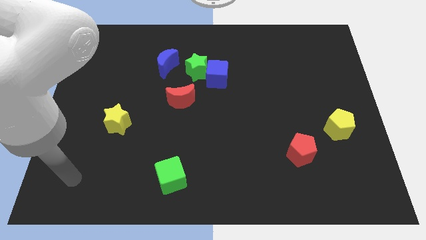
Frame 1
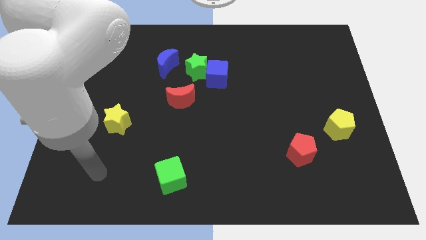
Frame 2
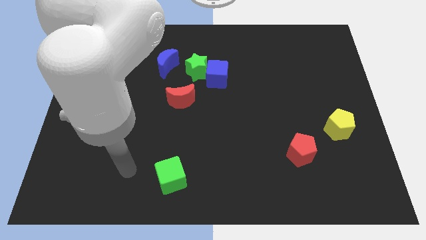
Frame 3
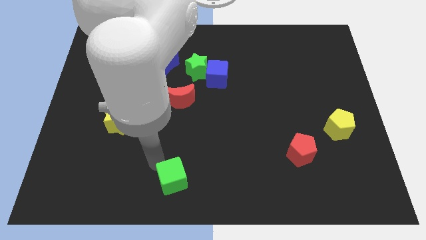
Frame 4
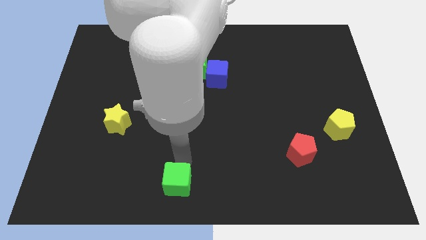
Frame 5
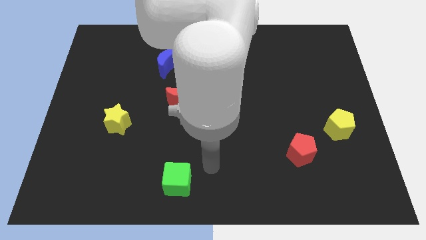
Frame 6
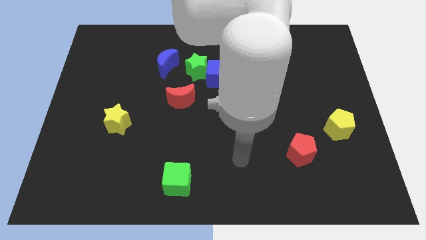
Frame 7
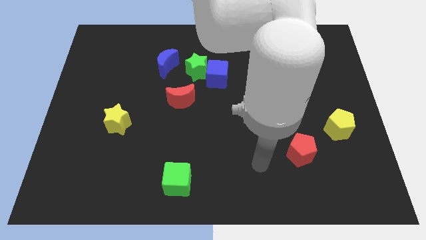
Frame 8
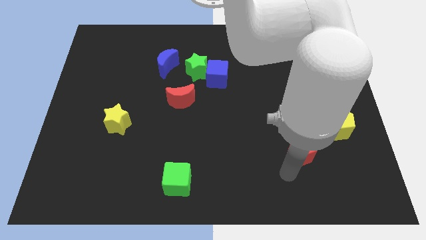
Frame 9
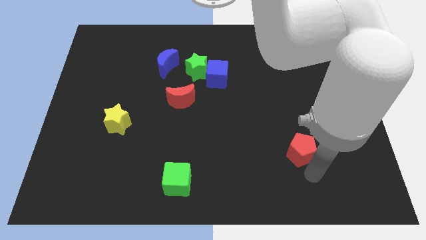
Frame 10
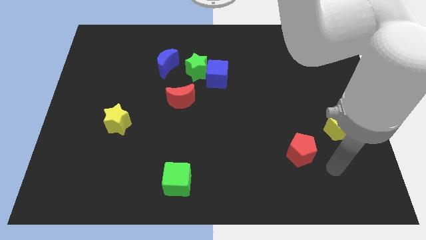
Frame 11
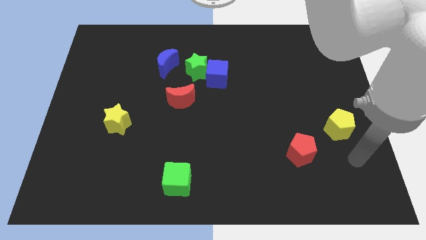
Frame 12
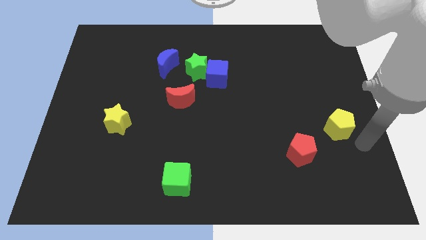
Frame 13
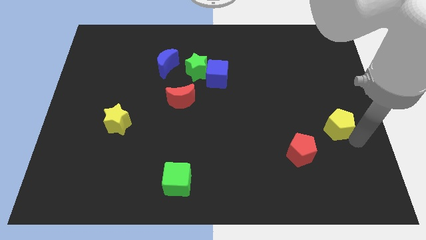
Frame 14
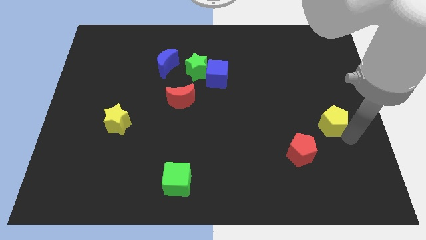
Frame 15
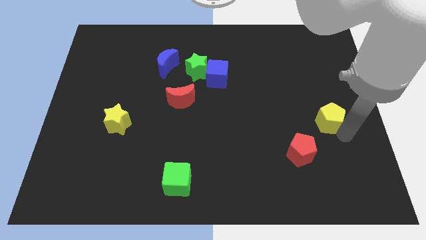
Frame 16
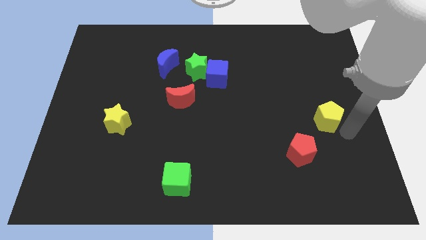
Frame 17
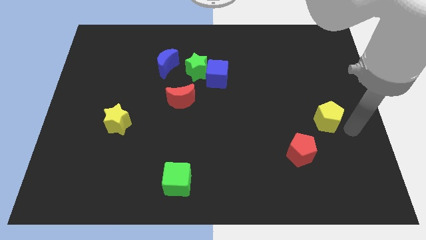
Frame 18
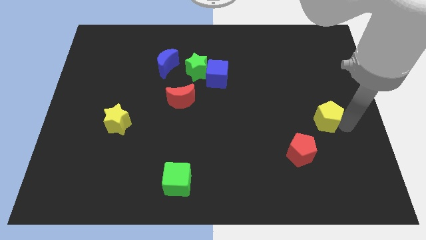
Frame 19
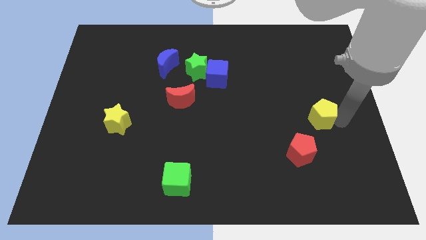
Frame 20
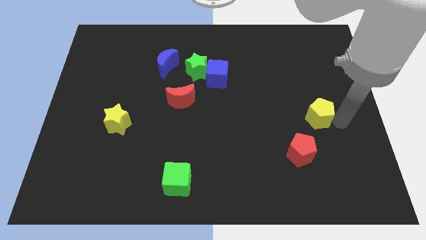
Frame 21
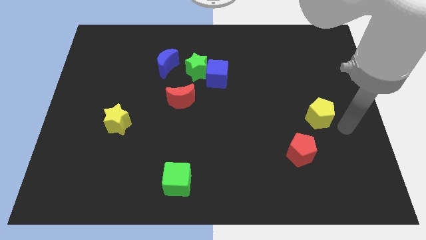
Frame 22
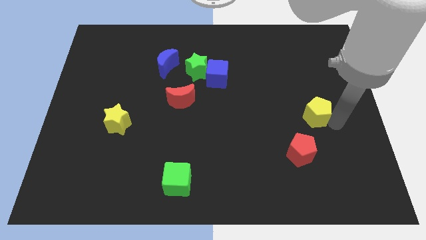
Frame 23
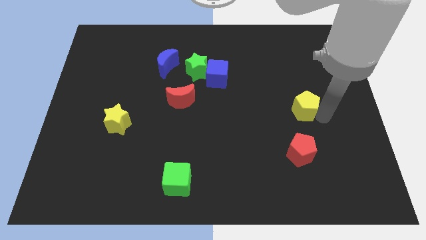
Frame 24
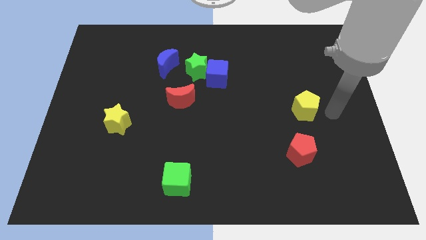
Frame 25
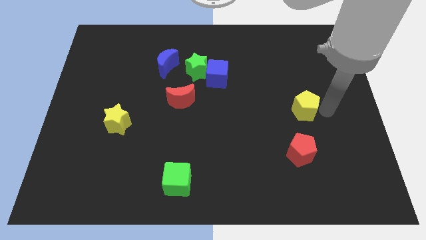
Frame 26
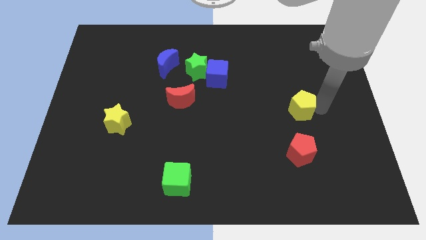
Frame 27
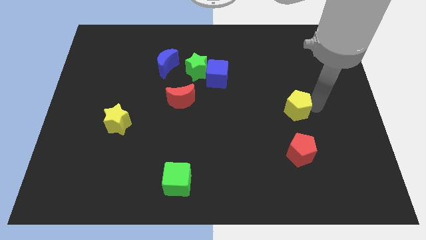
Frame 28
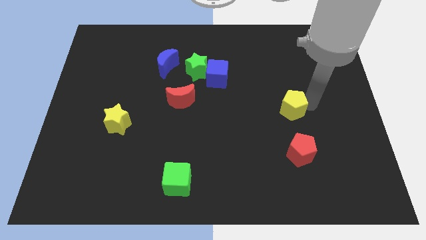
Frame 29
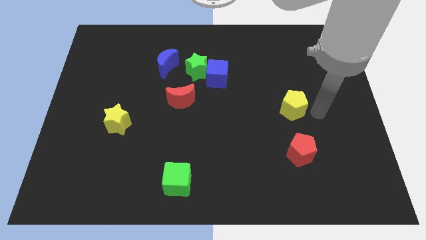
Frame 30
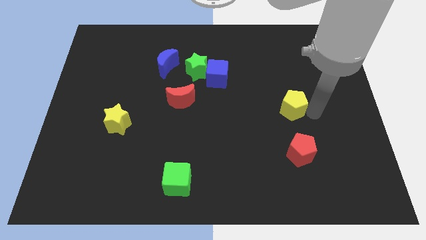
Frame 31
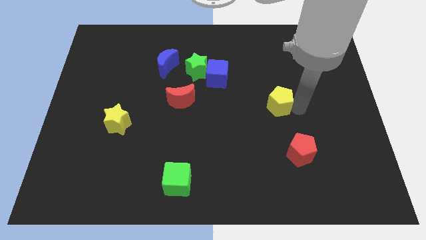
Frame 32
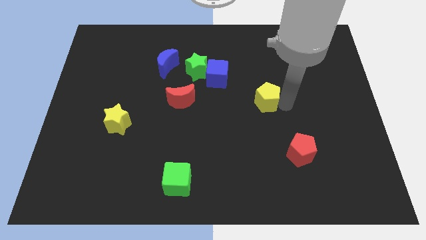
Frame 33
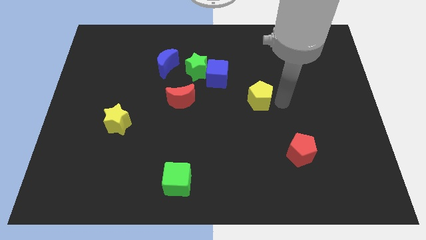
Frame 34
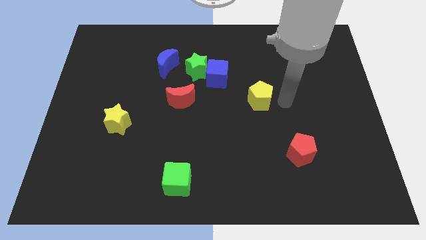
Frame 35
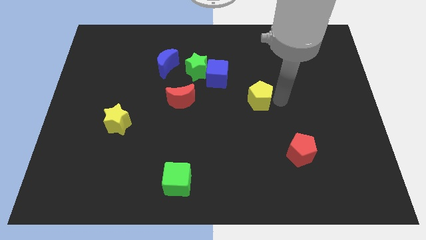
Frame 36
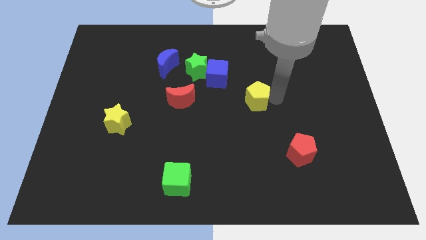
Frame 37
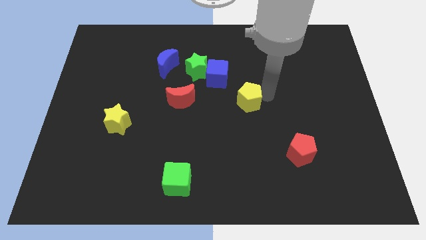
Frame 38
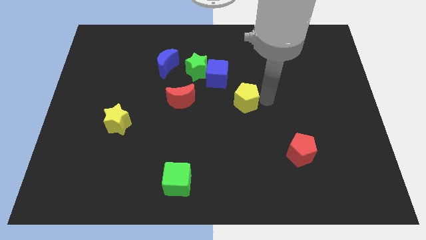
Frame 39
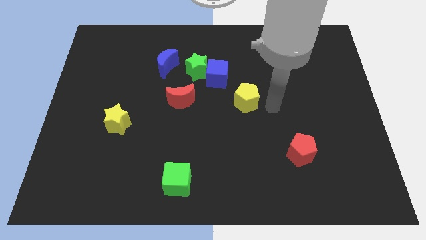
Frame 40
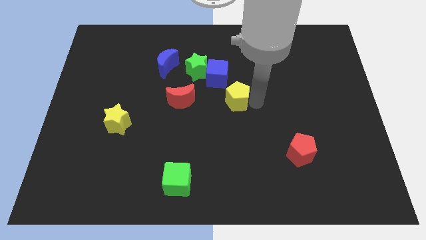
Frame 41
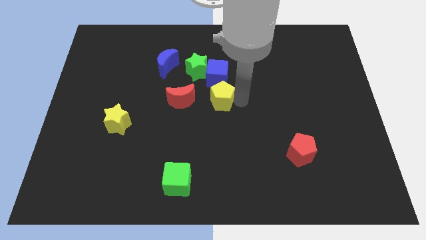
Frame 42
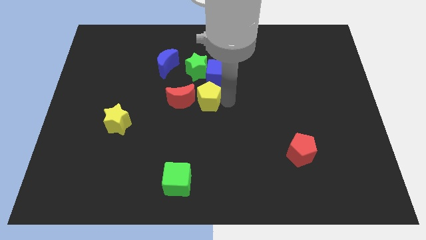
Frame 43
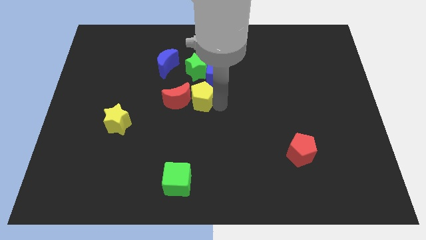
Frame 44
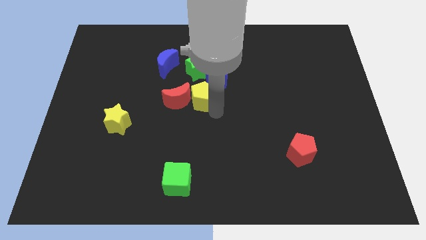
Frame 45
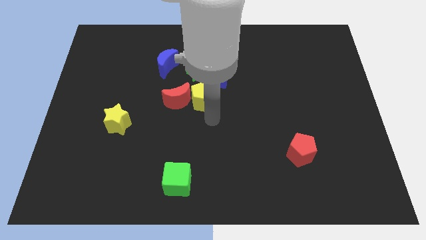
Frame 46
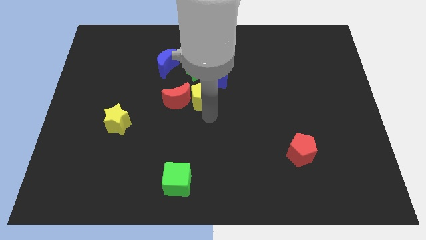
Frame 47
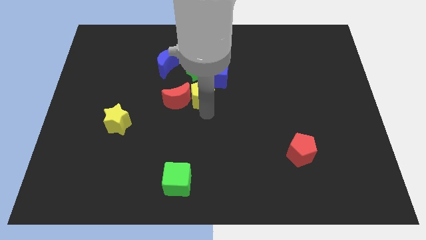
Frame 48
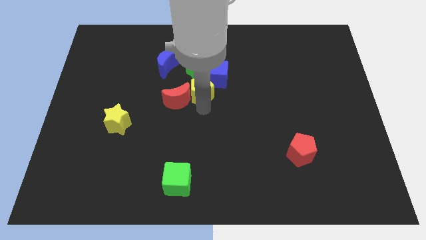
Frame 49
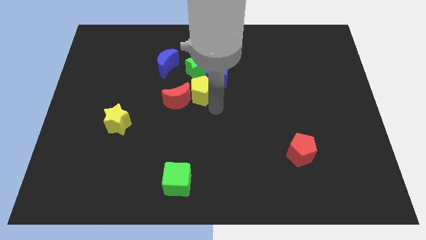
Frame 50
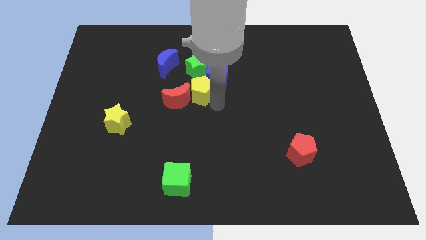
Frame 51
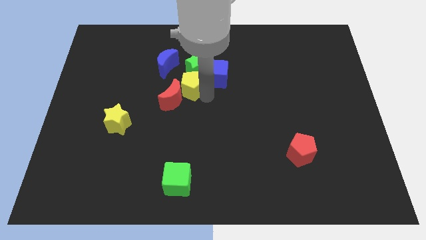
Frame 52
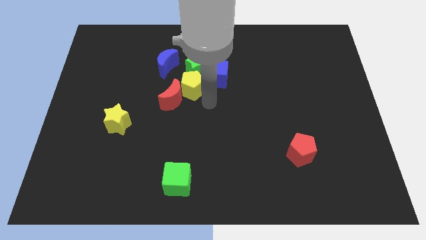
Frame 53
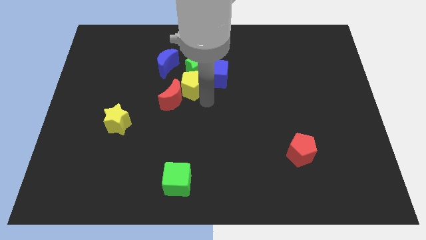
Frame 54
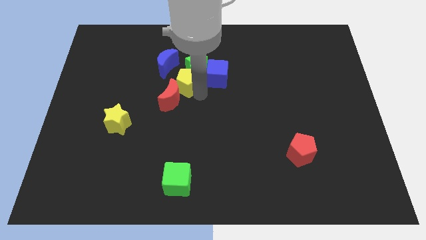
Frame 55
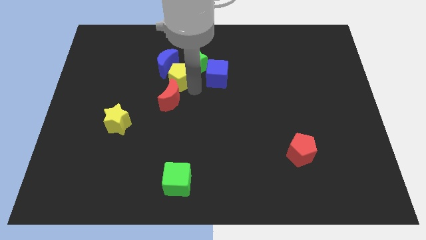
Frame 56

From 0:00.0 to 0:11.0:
slide the yellow pentagon next to the blue moon

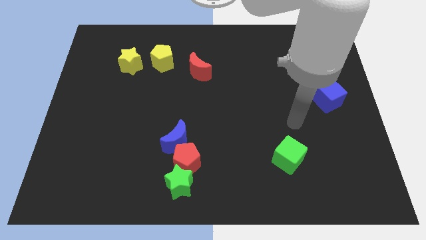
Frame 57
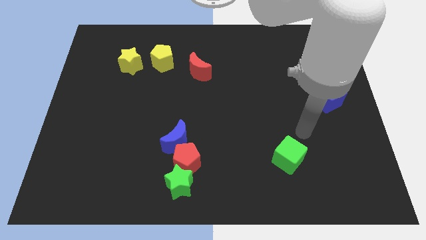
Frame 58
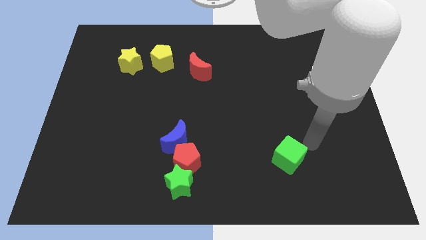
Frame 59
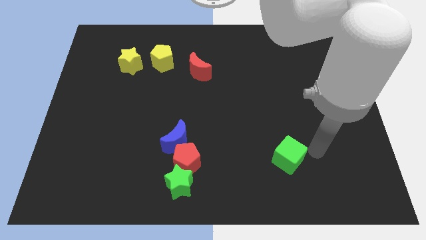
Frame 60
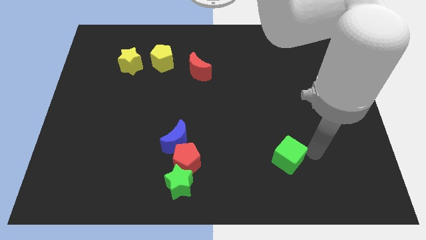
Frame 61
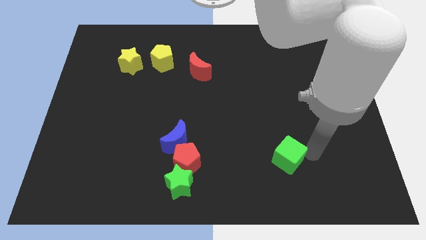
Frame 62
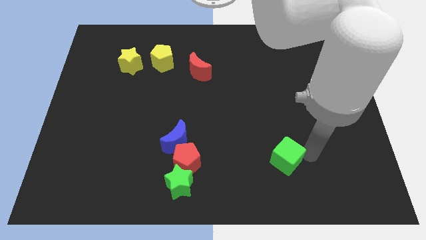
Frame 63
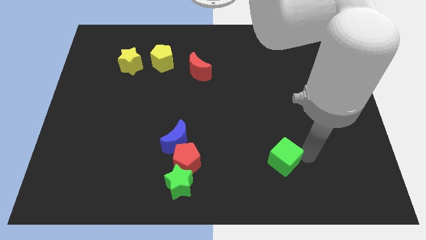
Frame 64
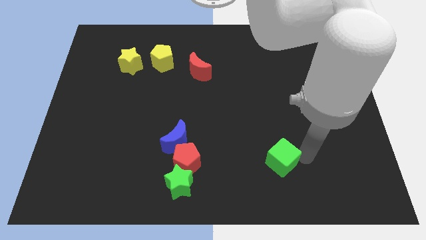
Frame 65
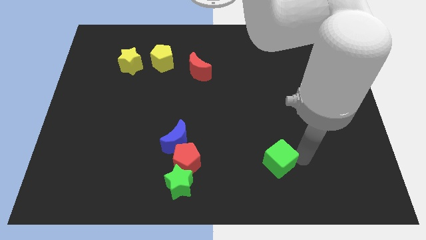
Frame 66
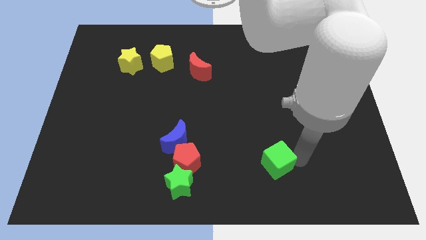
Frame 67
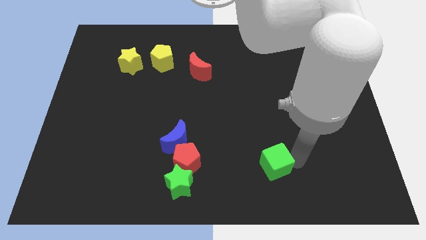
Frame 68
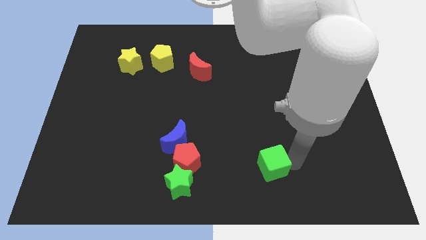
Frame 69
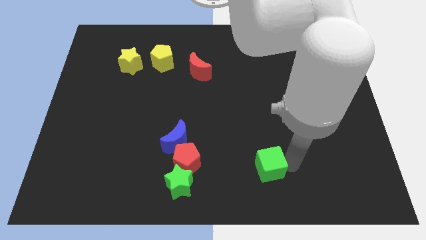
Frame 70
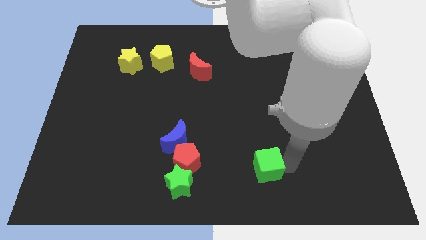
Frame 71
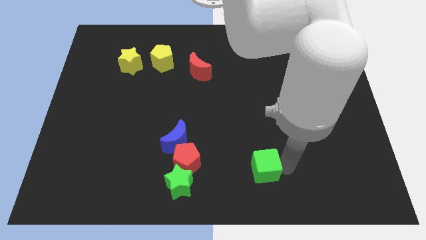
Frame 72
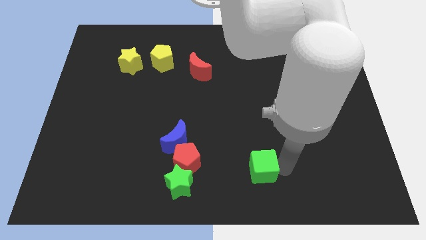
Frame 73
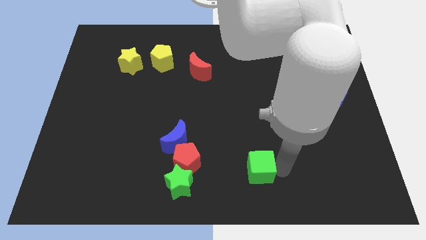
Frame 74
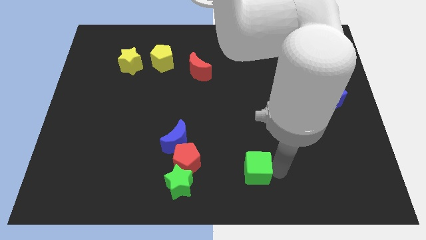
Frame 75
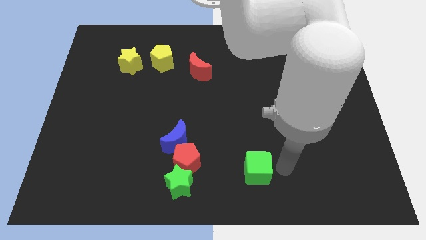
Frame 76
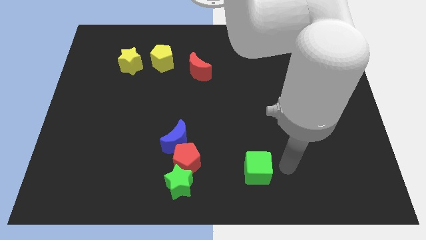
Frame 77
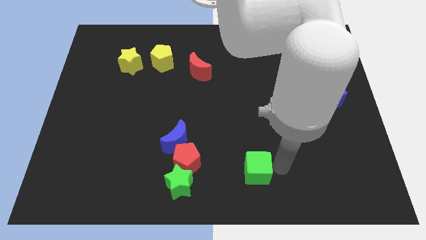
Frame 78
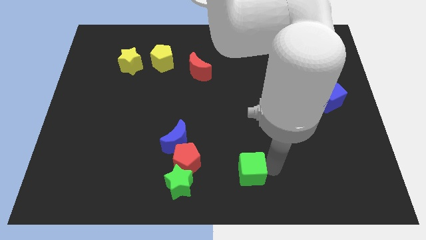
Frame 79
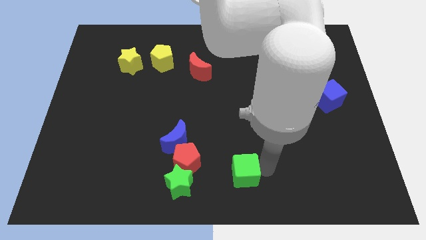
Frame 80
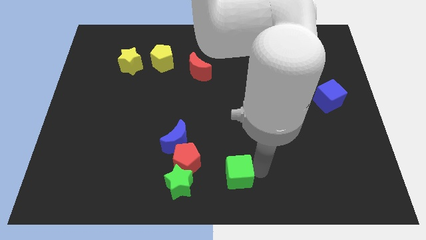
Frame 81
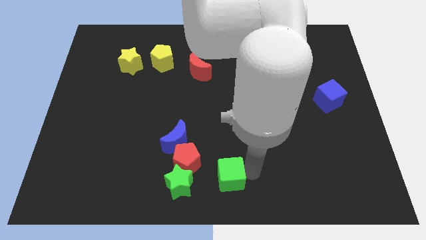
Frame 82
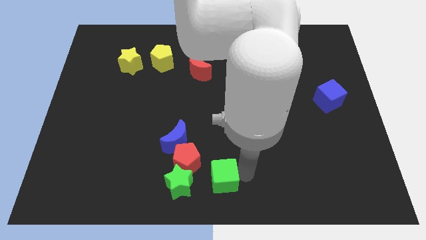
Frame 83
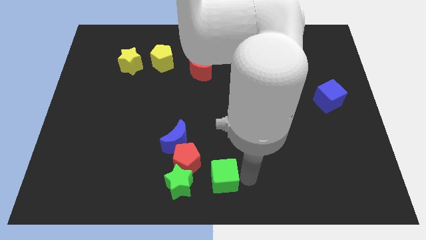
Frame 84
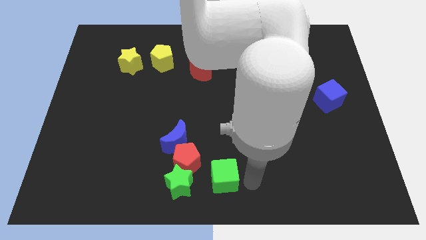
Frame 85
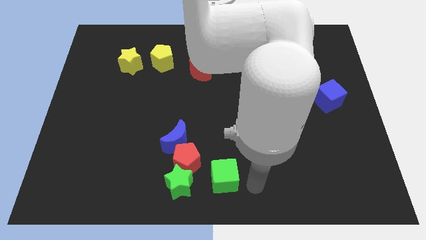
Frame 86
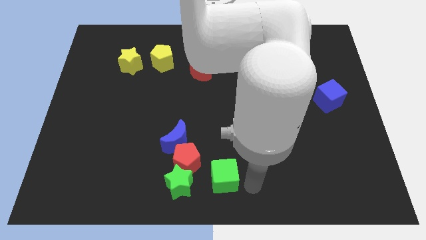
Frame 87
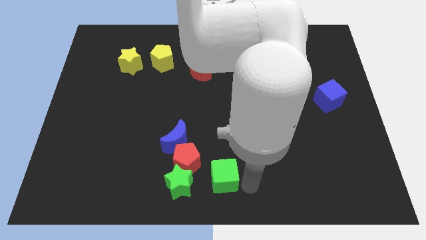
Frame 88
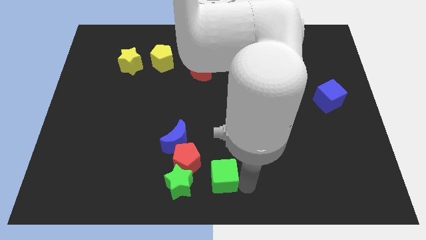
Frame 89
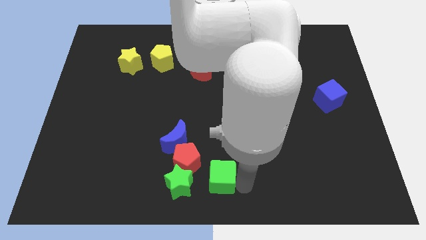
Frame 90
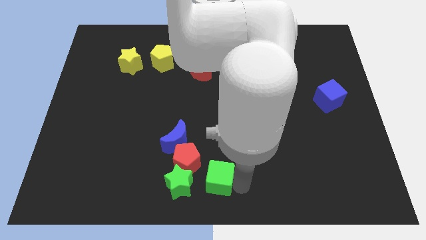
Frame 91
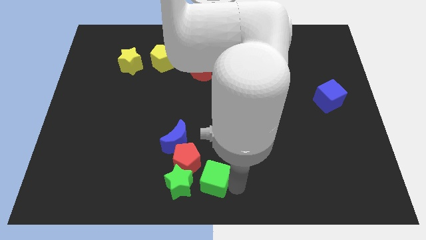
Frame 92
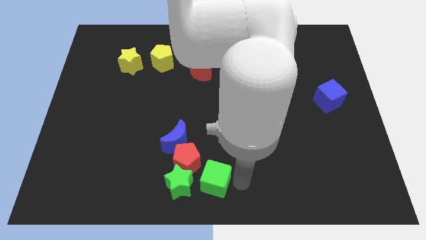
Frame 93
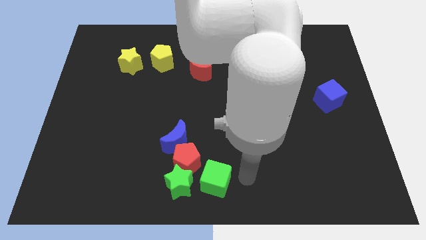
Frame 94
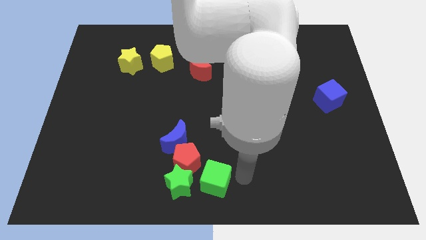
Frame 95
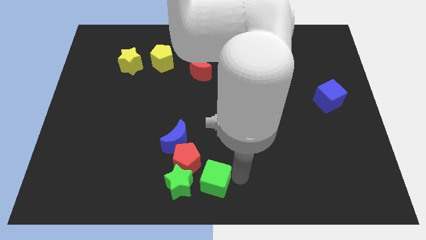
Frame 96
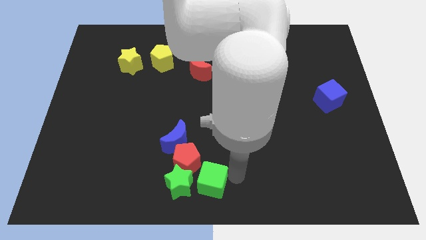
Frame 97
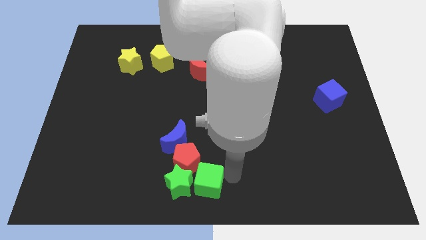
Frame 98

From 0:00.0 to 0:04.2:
slide the green cube close to the green star
